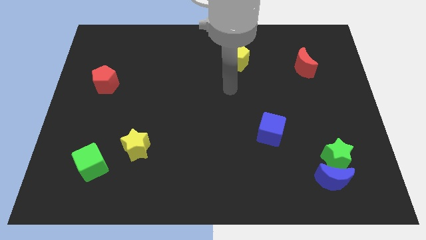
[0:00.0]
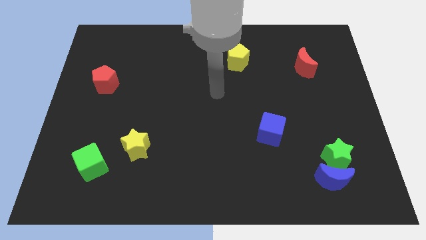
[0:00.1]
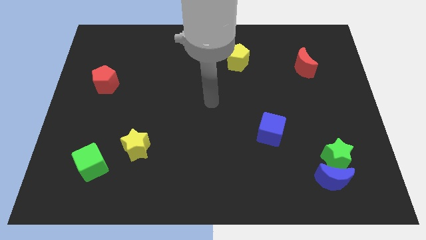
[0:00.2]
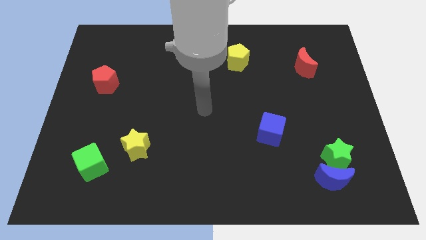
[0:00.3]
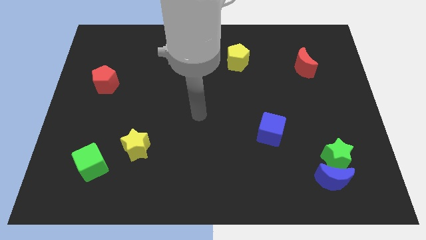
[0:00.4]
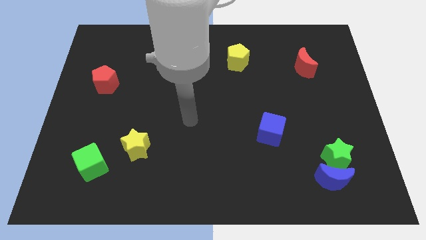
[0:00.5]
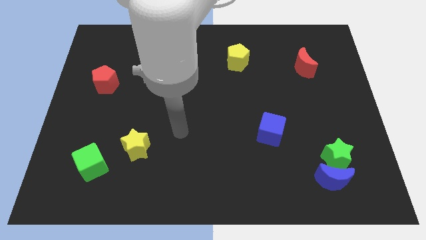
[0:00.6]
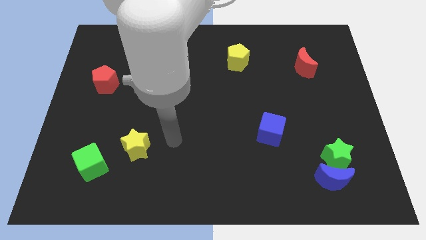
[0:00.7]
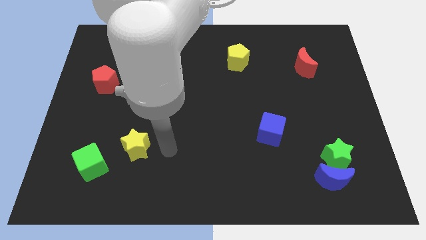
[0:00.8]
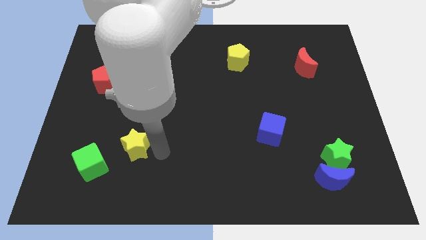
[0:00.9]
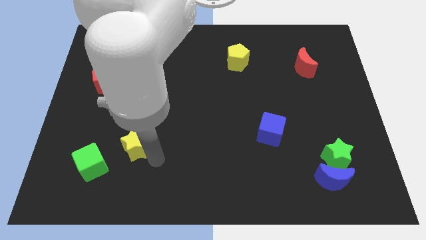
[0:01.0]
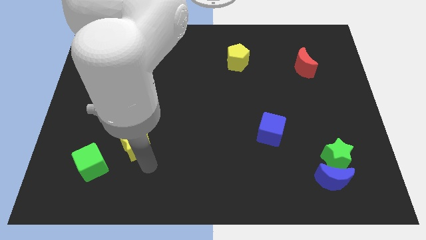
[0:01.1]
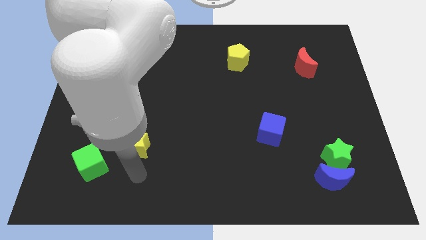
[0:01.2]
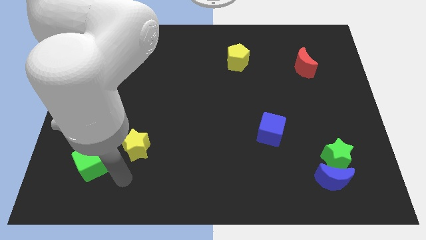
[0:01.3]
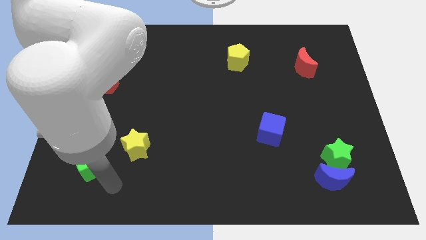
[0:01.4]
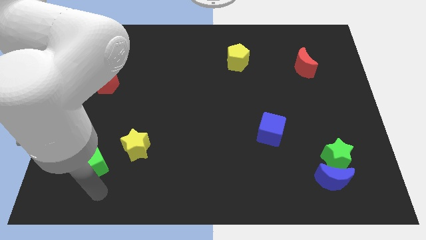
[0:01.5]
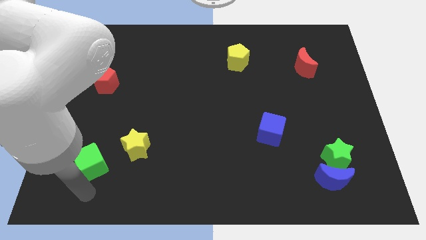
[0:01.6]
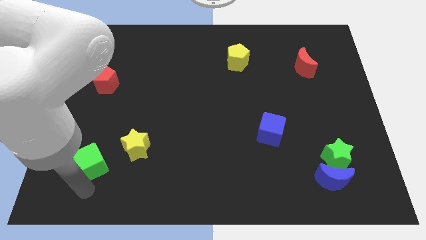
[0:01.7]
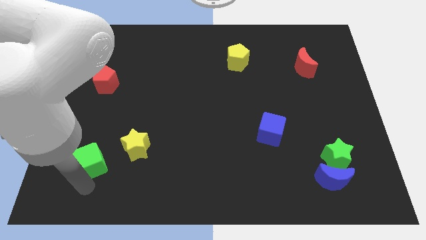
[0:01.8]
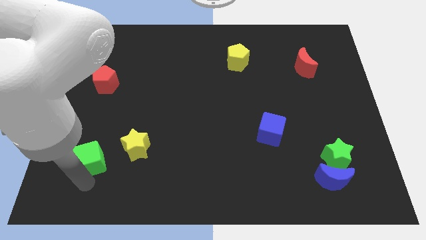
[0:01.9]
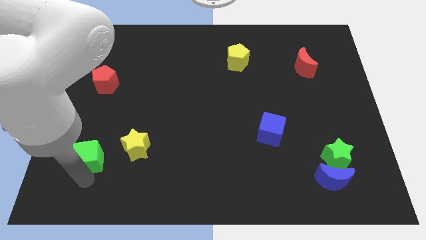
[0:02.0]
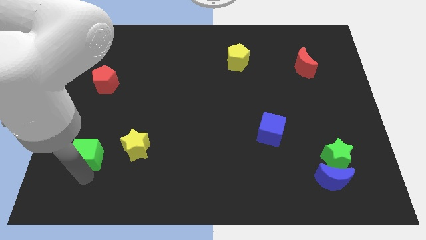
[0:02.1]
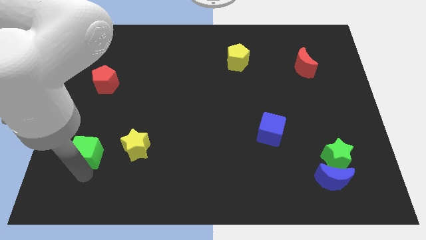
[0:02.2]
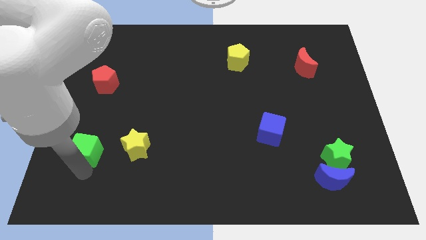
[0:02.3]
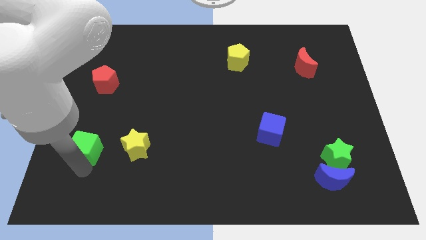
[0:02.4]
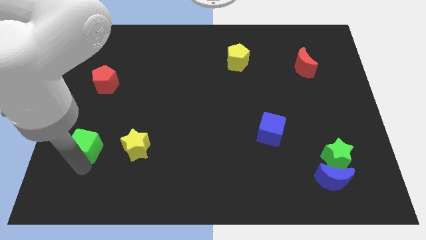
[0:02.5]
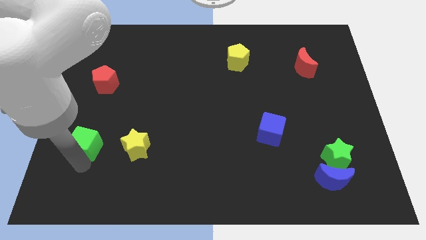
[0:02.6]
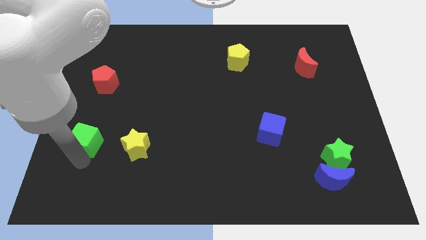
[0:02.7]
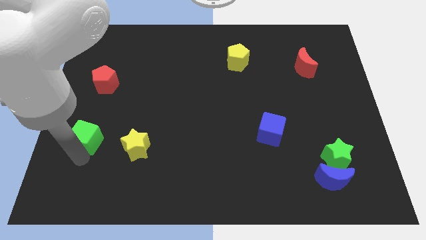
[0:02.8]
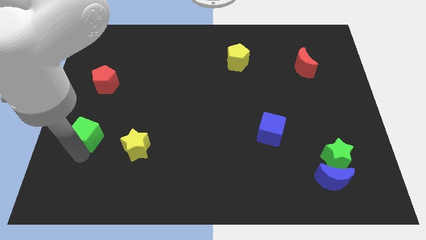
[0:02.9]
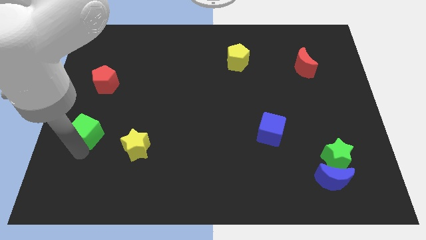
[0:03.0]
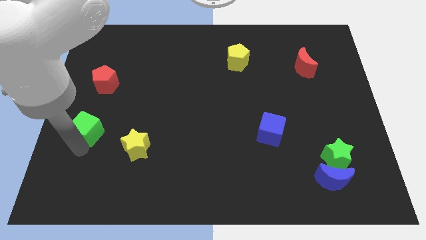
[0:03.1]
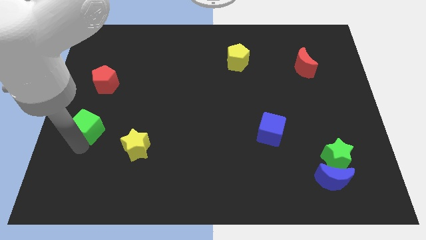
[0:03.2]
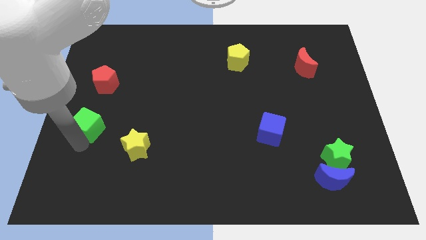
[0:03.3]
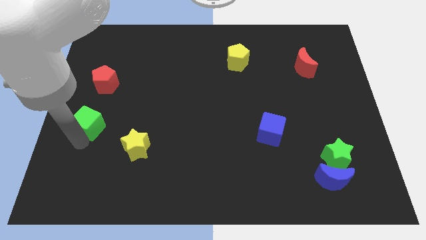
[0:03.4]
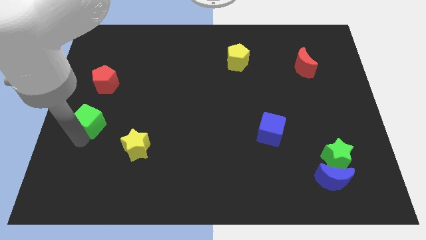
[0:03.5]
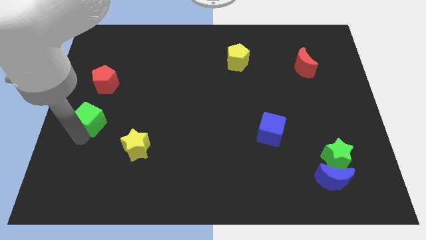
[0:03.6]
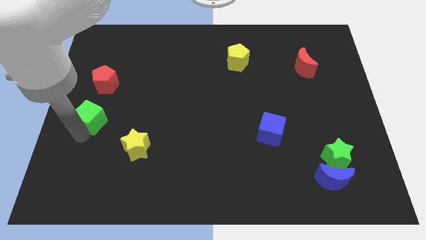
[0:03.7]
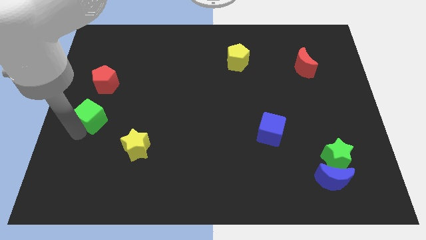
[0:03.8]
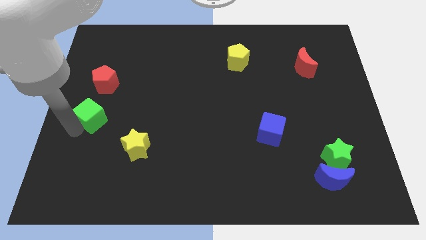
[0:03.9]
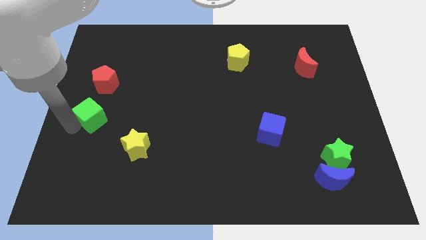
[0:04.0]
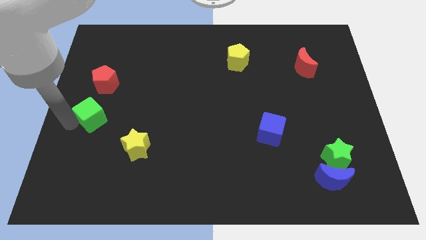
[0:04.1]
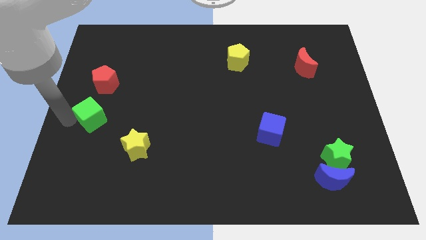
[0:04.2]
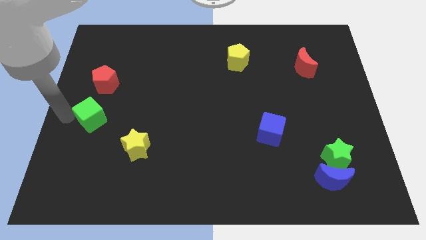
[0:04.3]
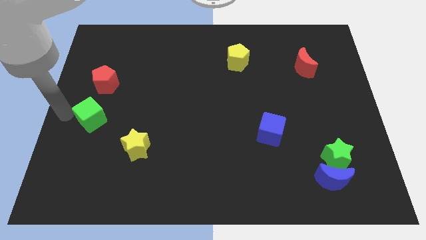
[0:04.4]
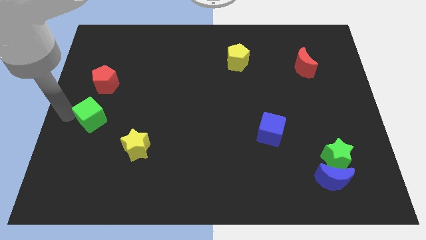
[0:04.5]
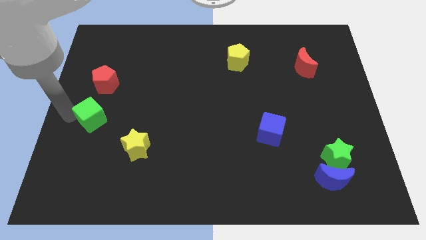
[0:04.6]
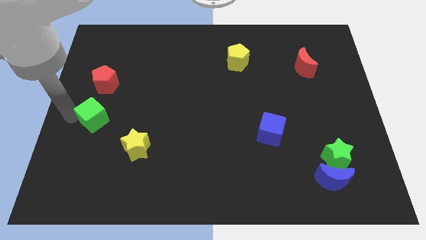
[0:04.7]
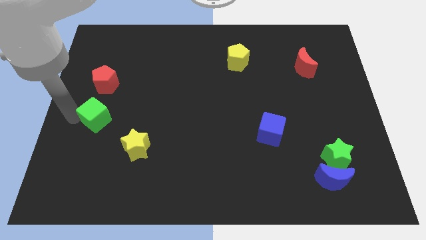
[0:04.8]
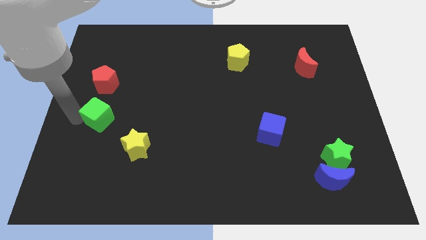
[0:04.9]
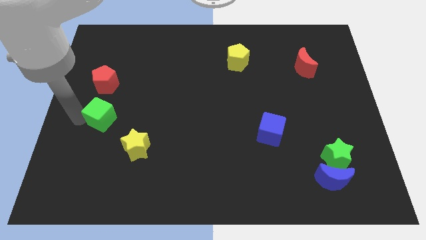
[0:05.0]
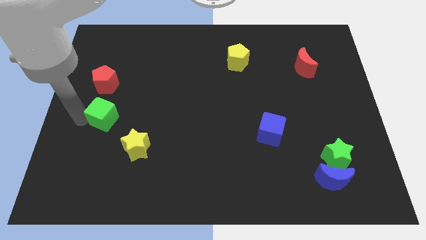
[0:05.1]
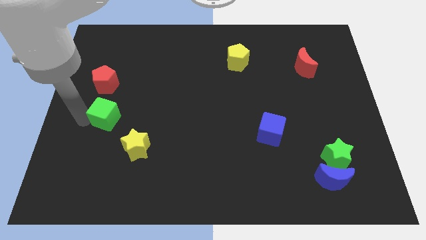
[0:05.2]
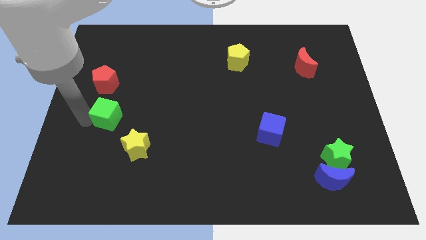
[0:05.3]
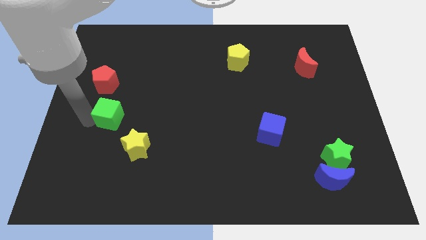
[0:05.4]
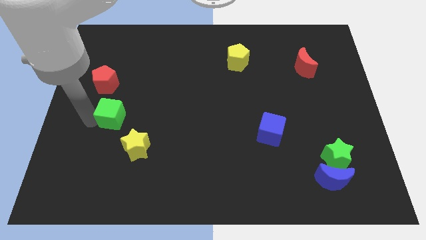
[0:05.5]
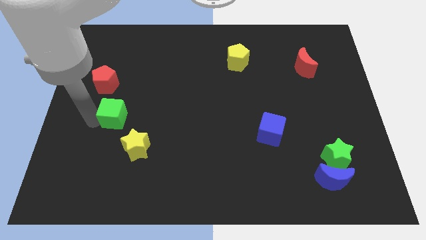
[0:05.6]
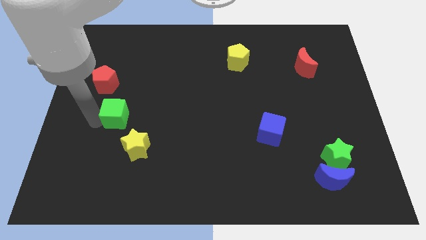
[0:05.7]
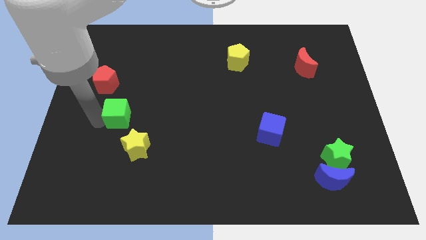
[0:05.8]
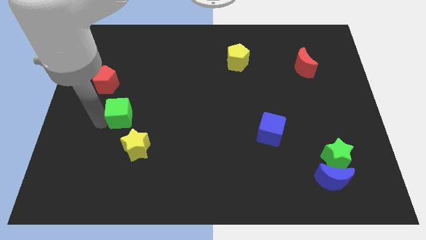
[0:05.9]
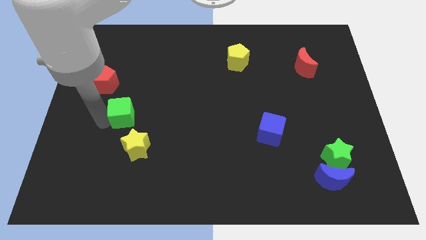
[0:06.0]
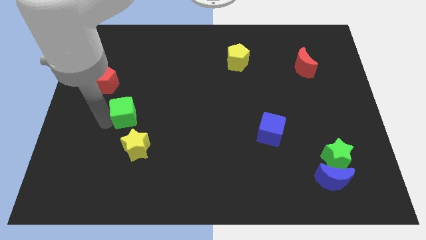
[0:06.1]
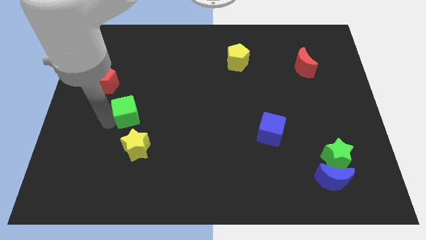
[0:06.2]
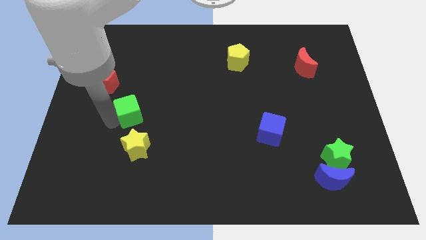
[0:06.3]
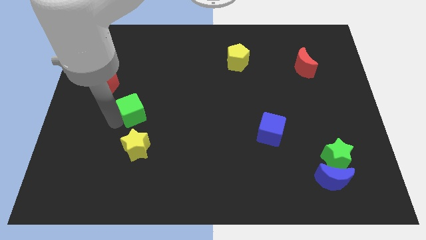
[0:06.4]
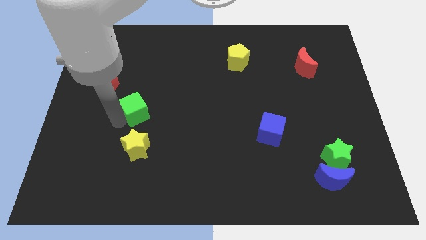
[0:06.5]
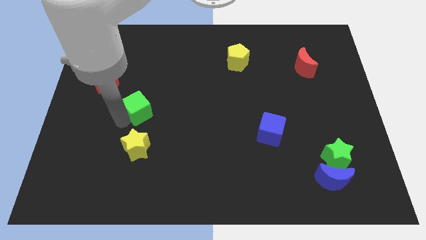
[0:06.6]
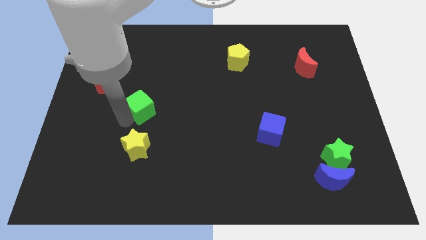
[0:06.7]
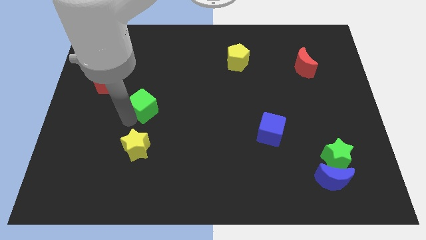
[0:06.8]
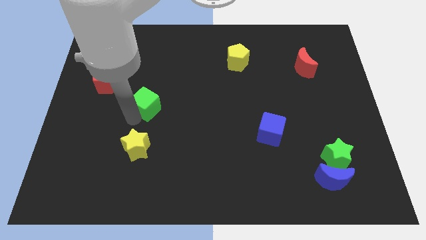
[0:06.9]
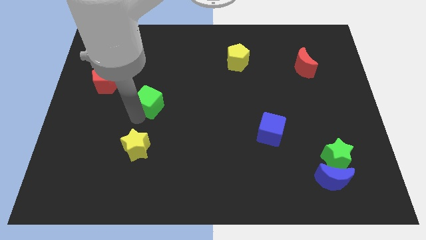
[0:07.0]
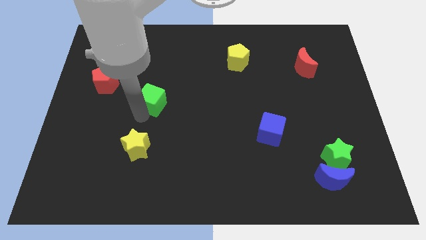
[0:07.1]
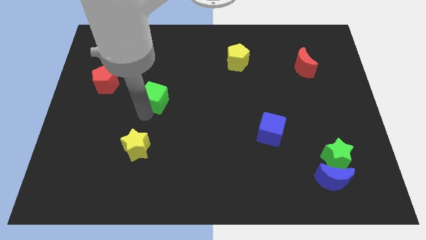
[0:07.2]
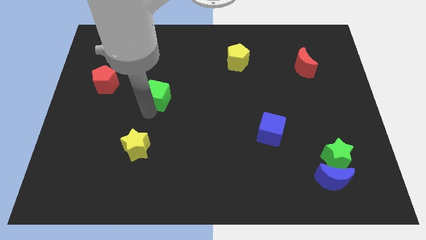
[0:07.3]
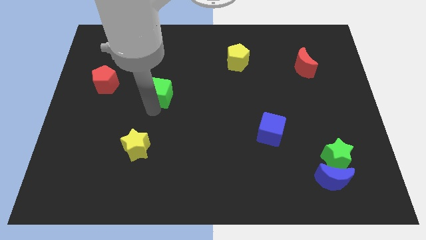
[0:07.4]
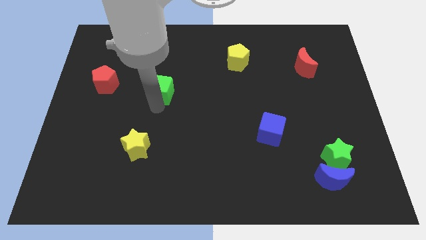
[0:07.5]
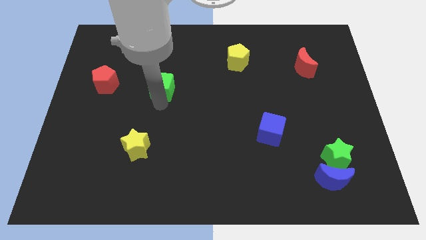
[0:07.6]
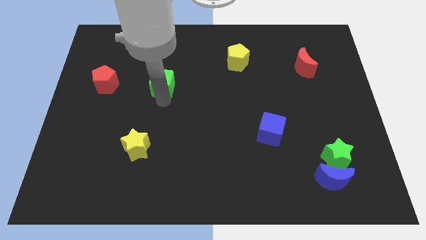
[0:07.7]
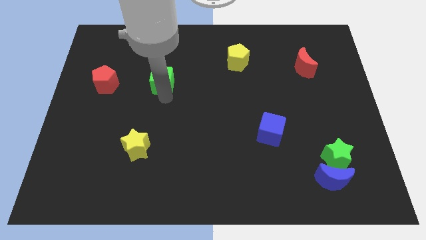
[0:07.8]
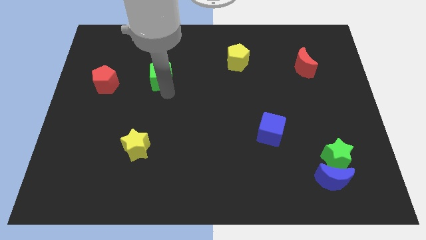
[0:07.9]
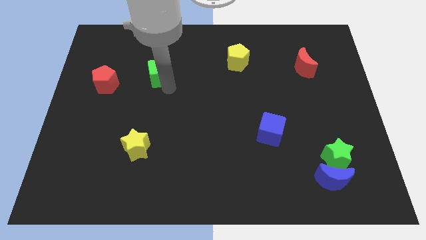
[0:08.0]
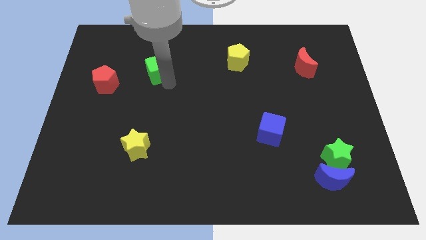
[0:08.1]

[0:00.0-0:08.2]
move the green cube up

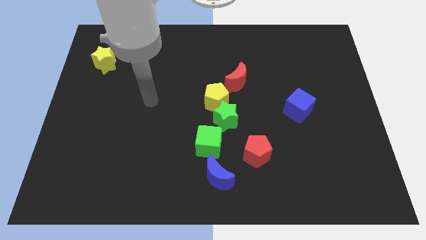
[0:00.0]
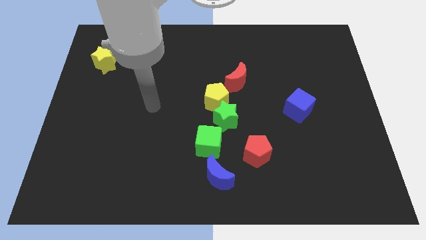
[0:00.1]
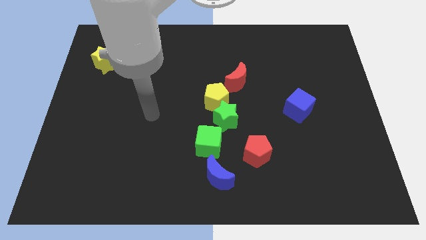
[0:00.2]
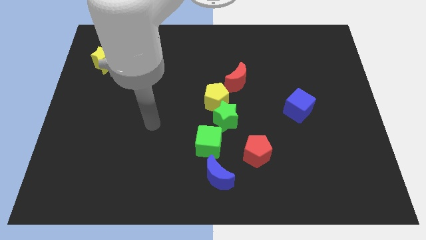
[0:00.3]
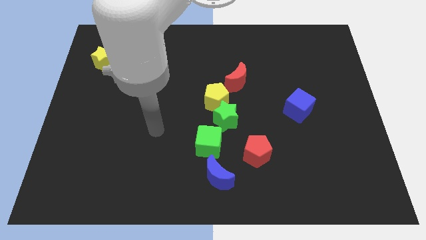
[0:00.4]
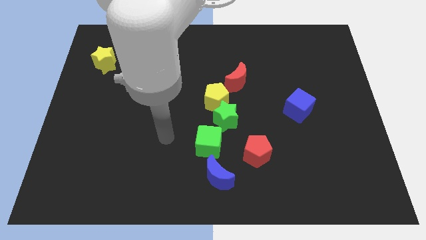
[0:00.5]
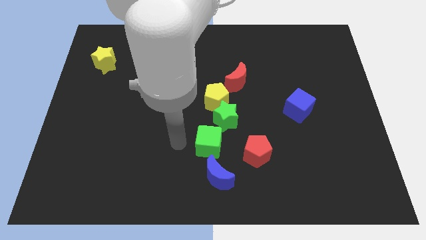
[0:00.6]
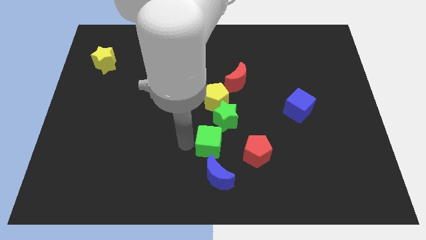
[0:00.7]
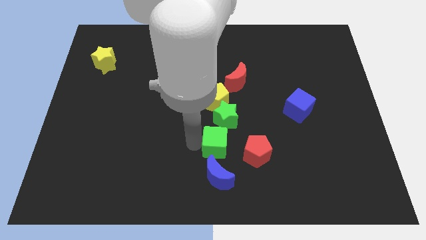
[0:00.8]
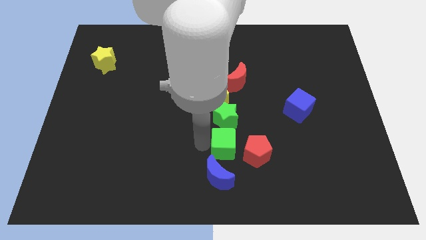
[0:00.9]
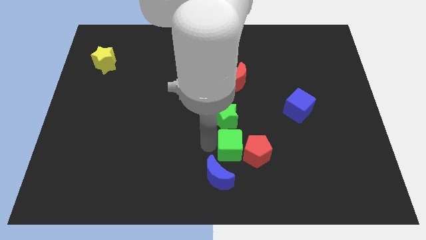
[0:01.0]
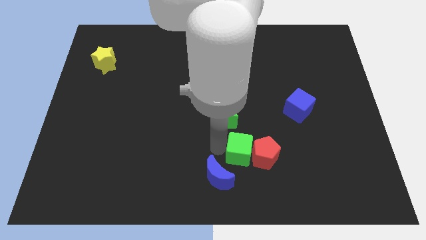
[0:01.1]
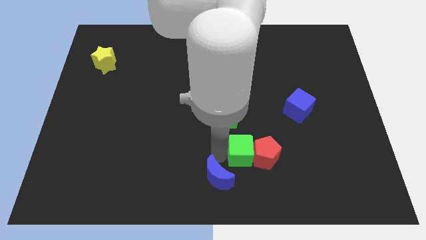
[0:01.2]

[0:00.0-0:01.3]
move the green cube slightly to the right
